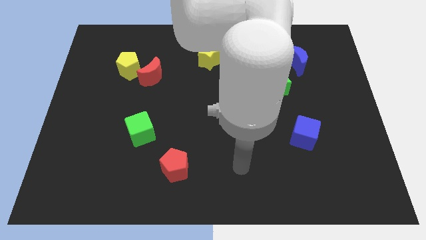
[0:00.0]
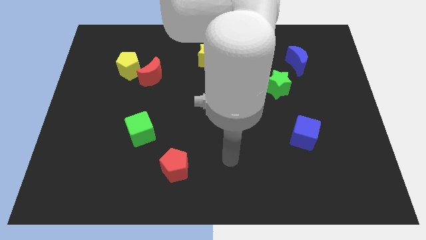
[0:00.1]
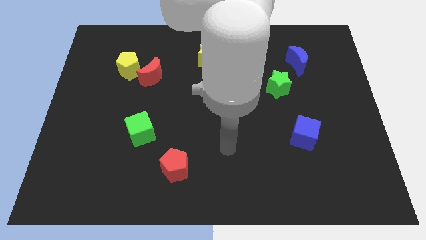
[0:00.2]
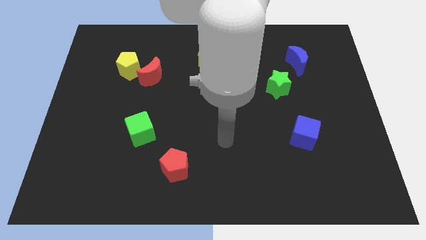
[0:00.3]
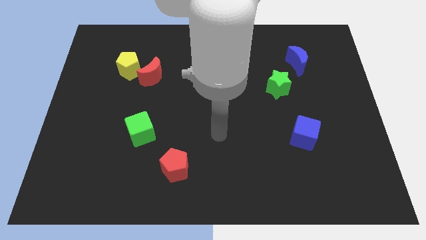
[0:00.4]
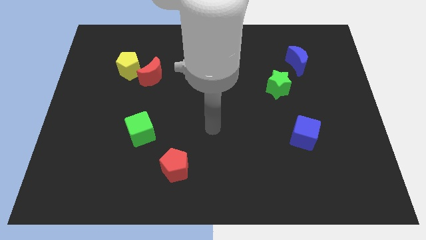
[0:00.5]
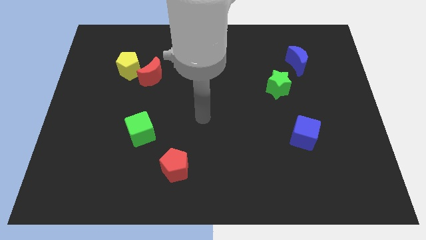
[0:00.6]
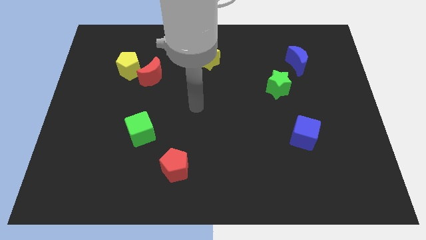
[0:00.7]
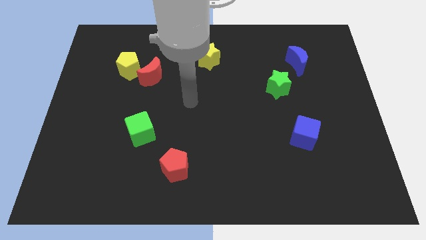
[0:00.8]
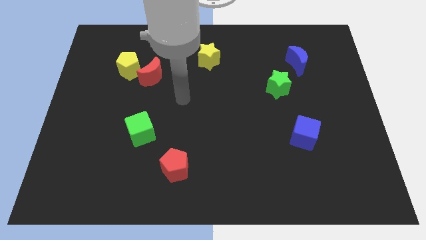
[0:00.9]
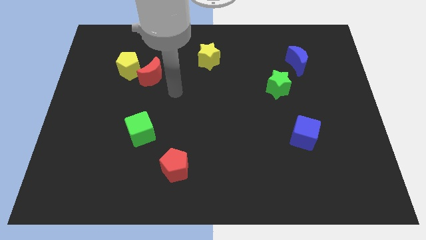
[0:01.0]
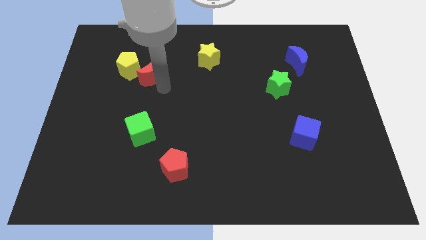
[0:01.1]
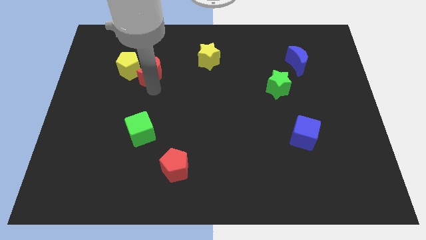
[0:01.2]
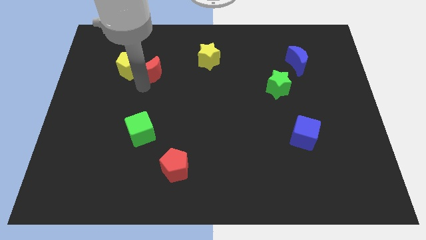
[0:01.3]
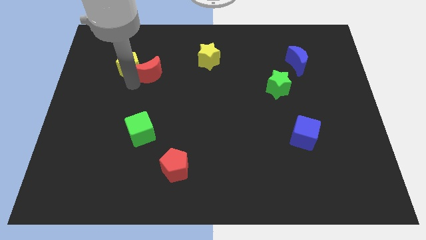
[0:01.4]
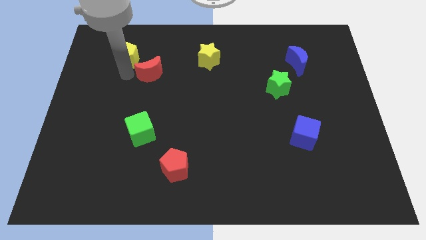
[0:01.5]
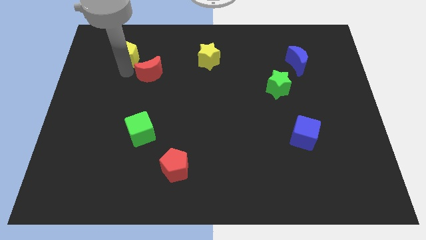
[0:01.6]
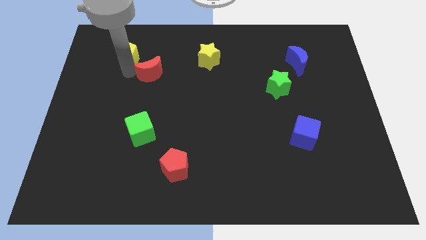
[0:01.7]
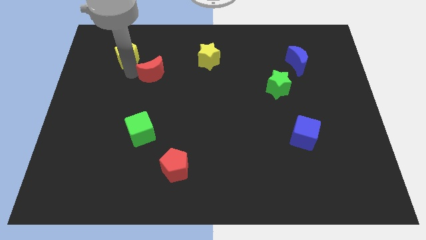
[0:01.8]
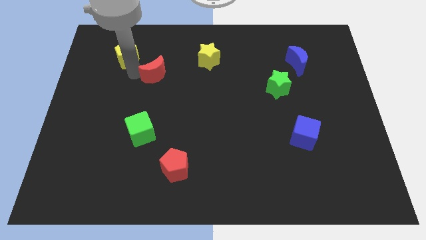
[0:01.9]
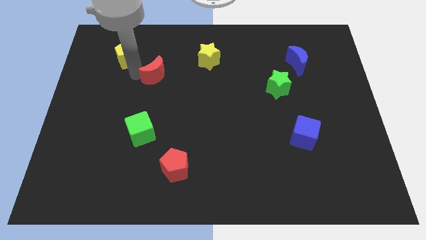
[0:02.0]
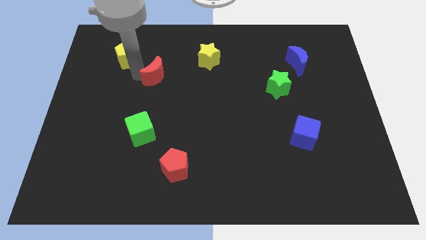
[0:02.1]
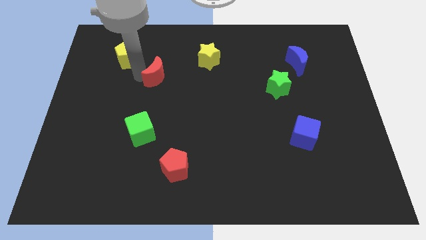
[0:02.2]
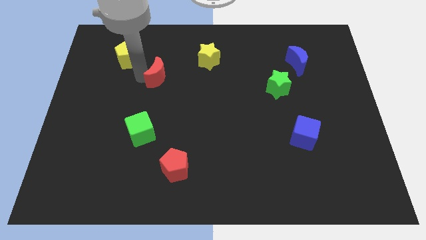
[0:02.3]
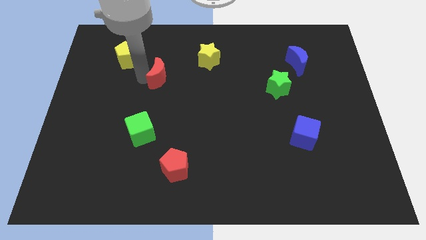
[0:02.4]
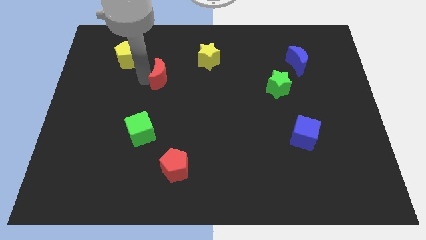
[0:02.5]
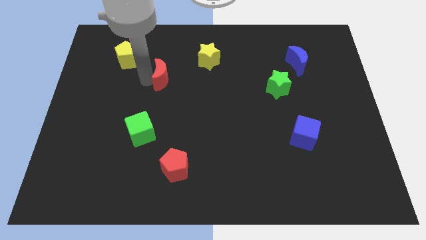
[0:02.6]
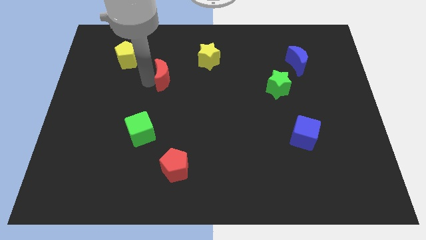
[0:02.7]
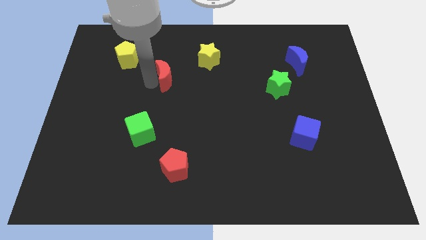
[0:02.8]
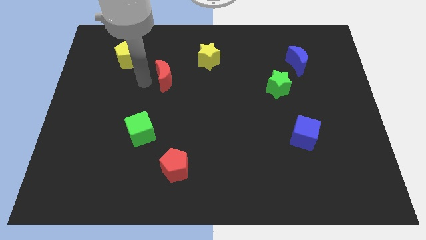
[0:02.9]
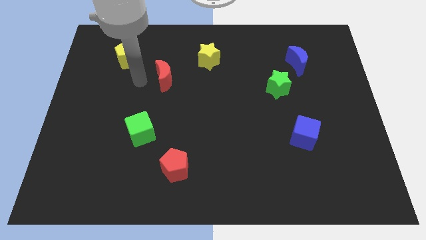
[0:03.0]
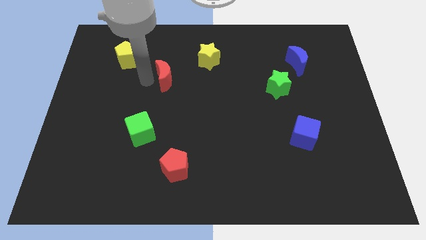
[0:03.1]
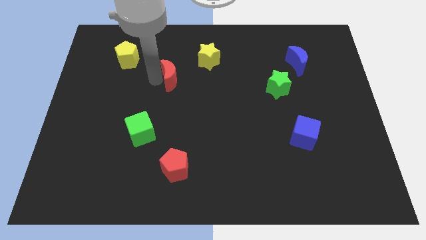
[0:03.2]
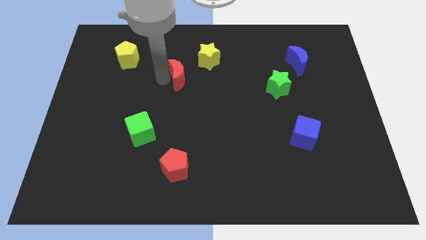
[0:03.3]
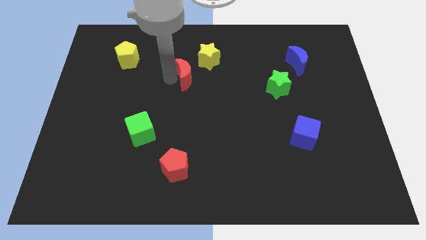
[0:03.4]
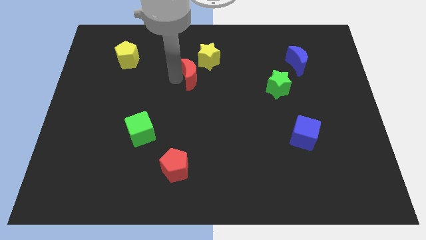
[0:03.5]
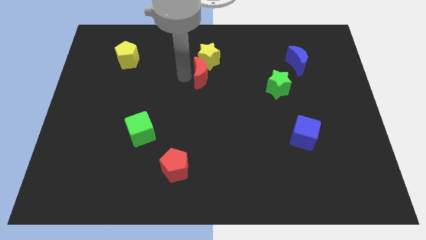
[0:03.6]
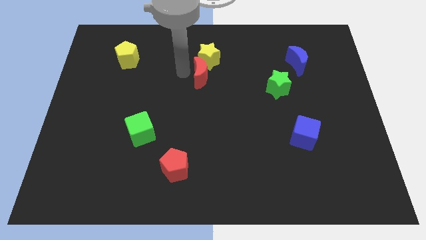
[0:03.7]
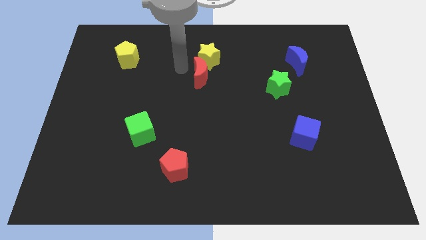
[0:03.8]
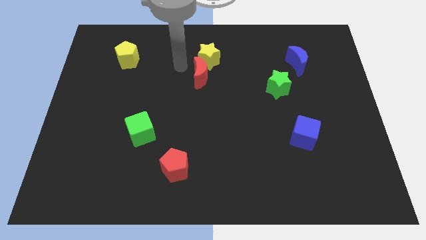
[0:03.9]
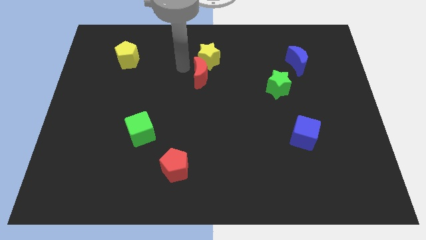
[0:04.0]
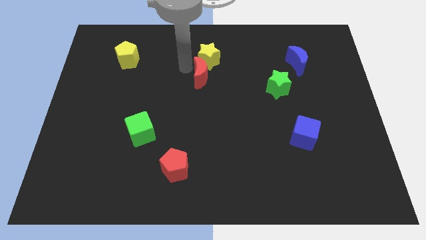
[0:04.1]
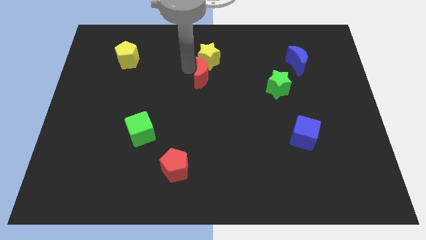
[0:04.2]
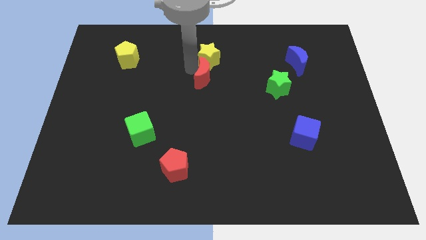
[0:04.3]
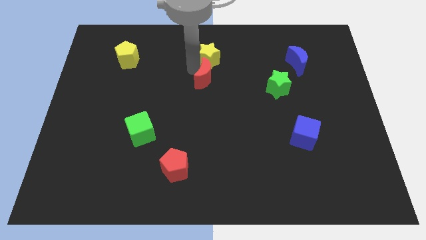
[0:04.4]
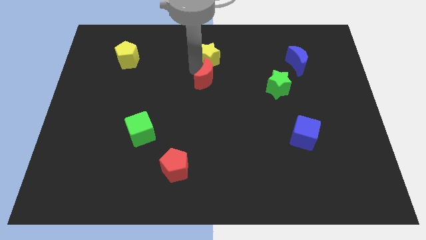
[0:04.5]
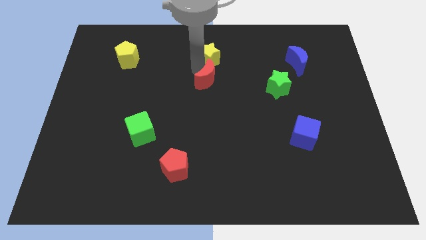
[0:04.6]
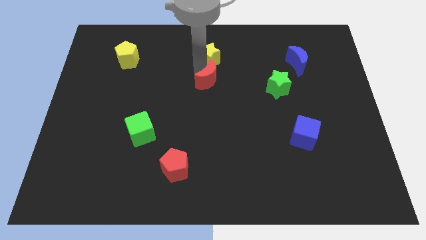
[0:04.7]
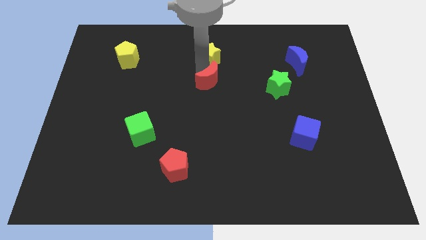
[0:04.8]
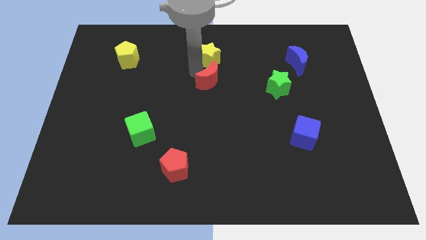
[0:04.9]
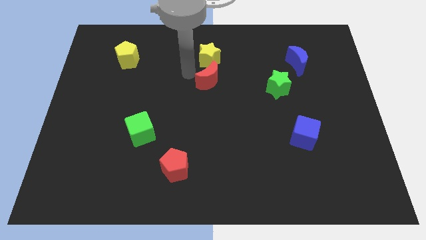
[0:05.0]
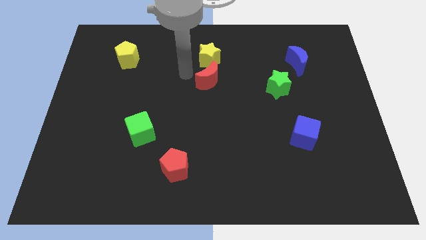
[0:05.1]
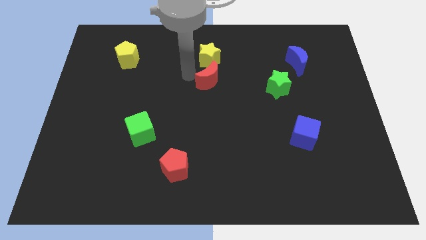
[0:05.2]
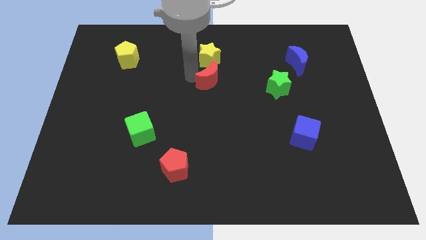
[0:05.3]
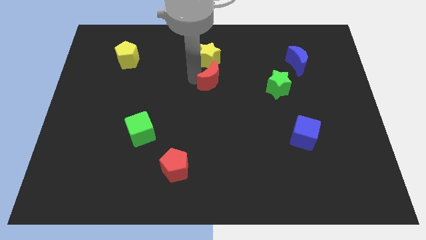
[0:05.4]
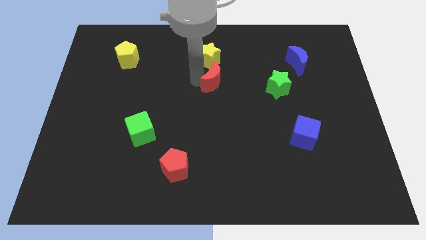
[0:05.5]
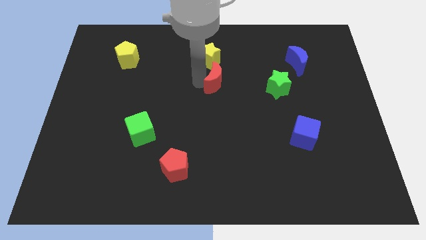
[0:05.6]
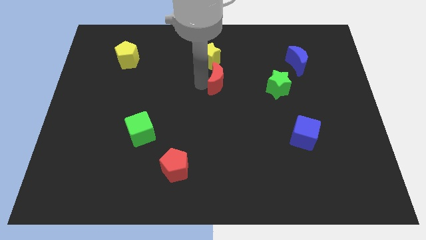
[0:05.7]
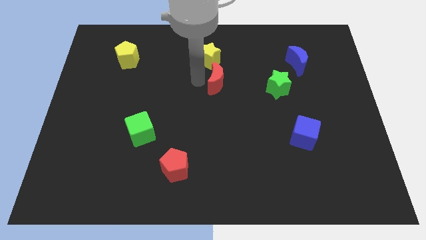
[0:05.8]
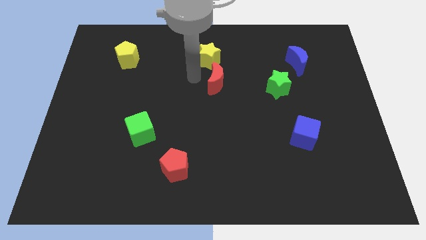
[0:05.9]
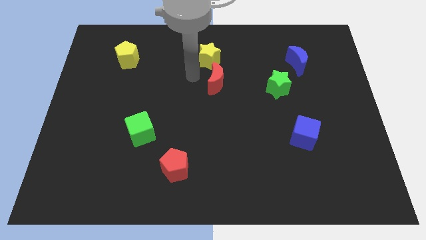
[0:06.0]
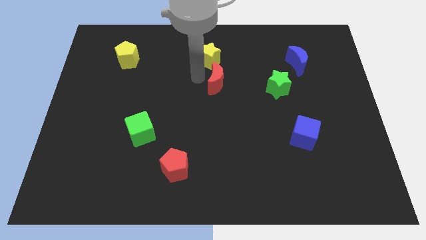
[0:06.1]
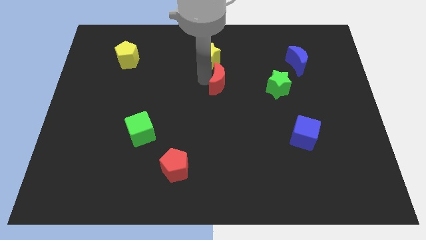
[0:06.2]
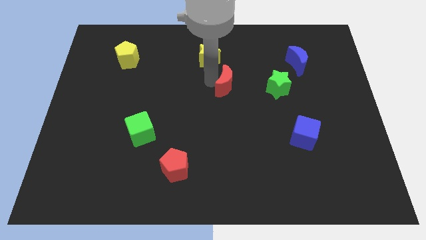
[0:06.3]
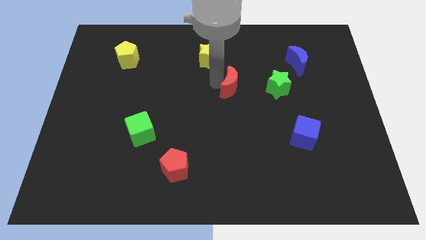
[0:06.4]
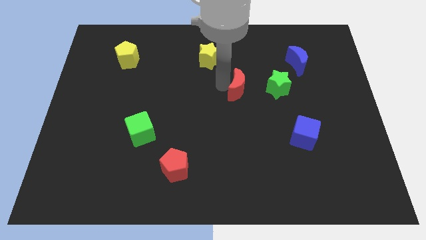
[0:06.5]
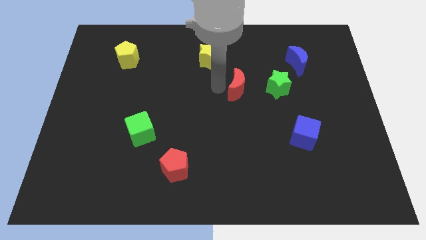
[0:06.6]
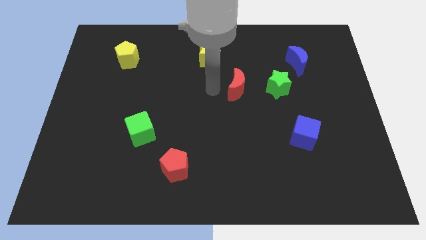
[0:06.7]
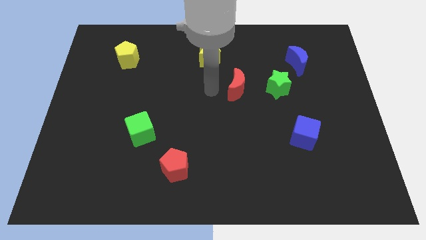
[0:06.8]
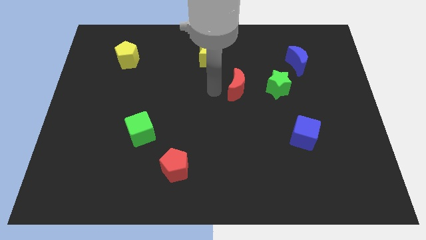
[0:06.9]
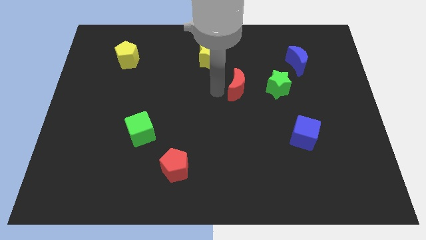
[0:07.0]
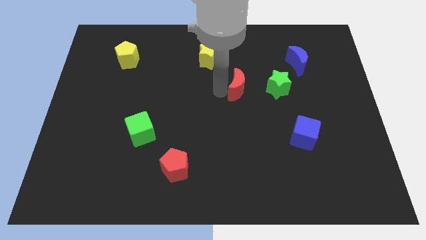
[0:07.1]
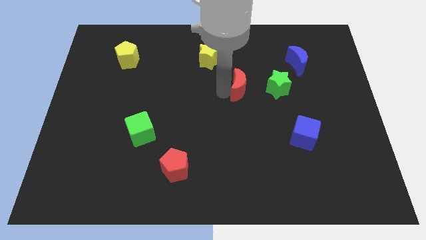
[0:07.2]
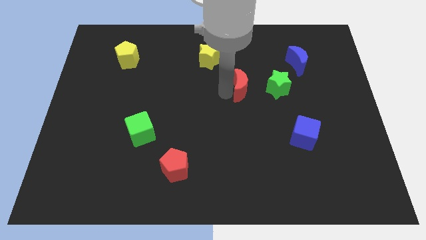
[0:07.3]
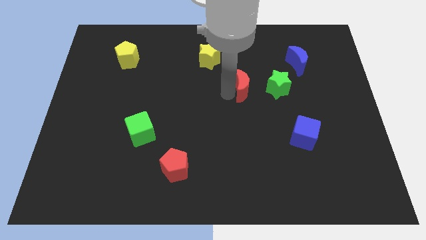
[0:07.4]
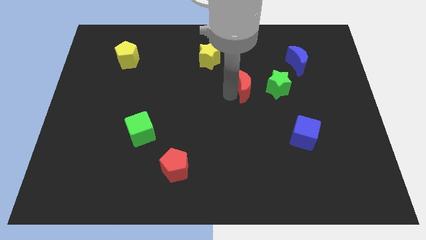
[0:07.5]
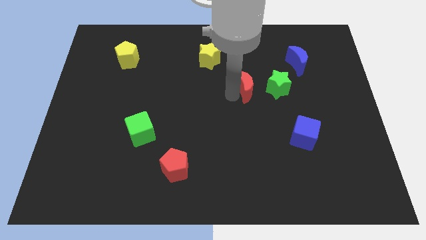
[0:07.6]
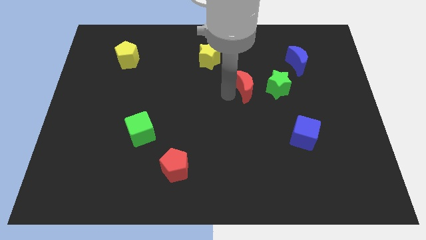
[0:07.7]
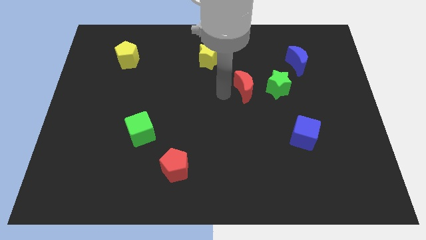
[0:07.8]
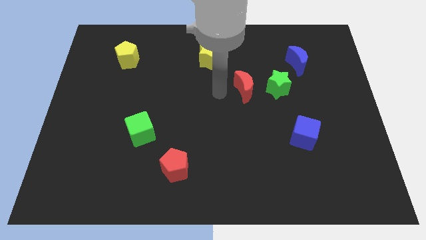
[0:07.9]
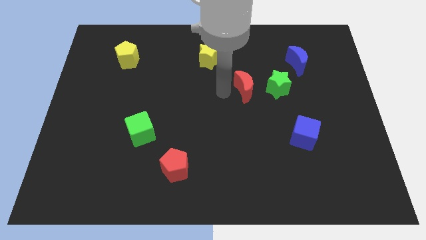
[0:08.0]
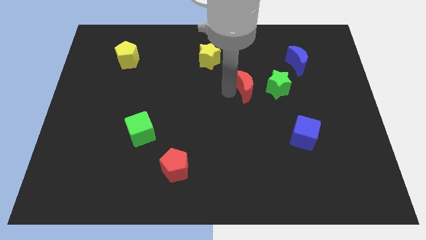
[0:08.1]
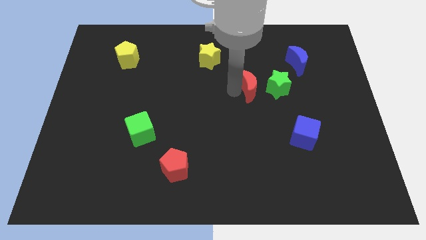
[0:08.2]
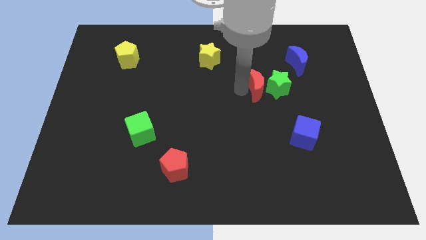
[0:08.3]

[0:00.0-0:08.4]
put the red moon close to the green star
